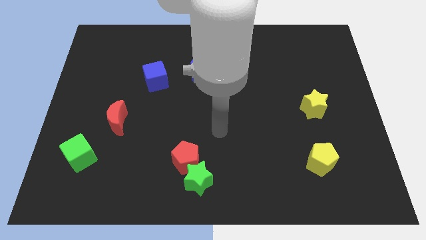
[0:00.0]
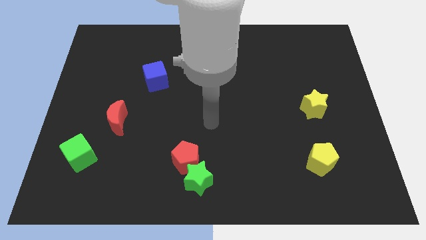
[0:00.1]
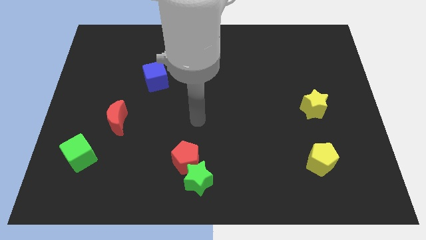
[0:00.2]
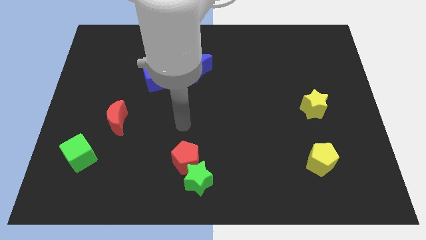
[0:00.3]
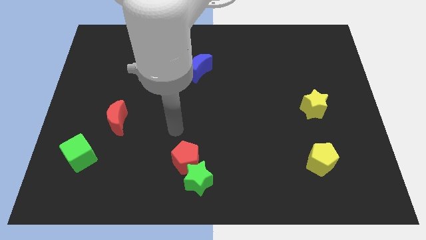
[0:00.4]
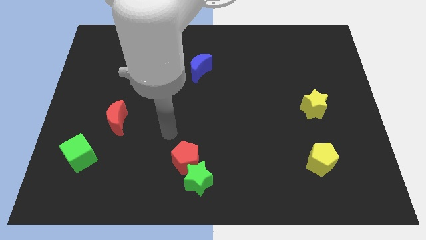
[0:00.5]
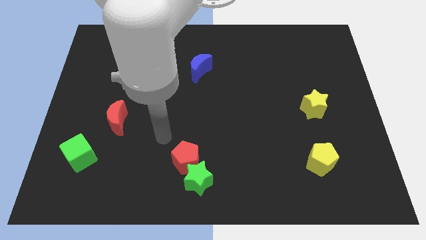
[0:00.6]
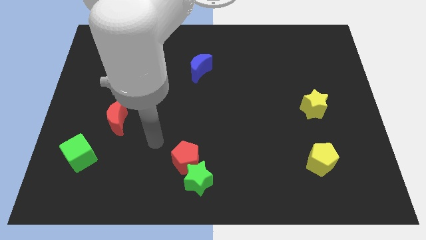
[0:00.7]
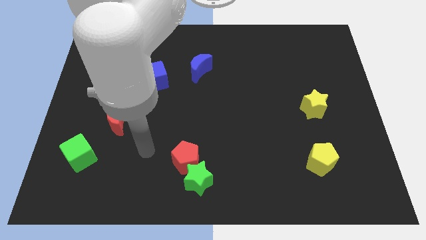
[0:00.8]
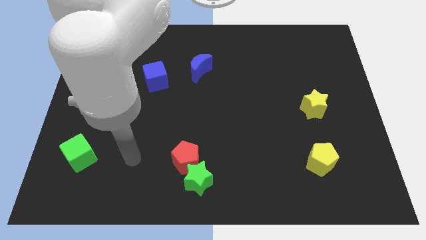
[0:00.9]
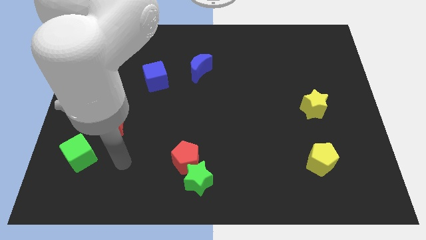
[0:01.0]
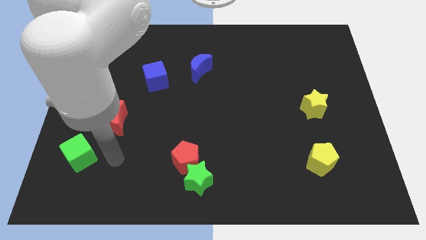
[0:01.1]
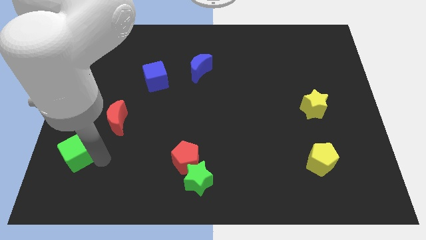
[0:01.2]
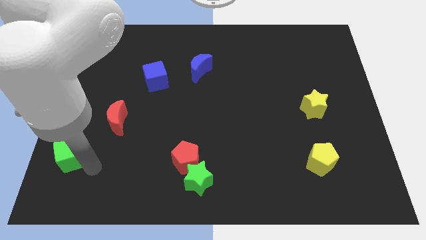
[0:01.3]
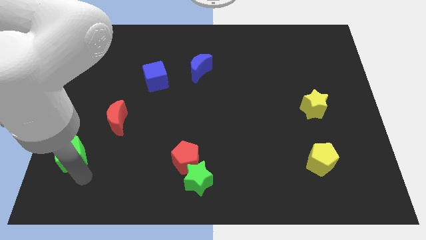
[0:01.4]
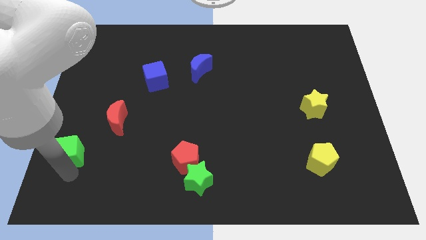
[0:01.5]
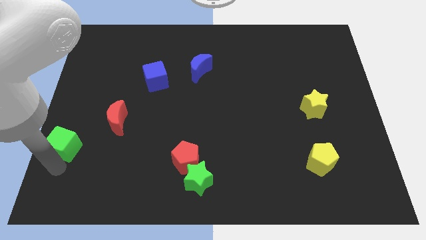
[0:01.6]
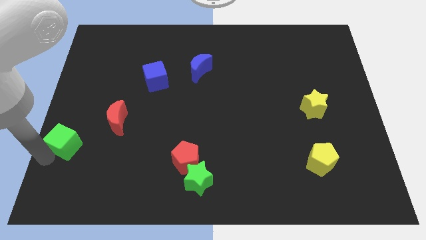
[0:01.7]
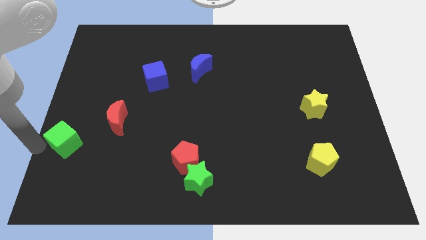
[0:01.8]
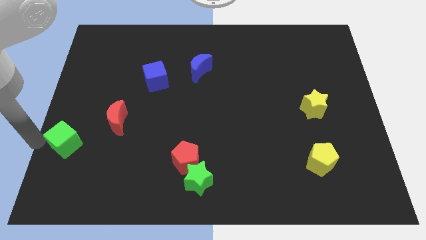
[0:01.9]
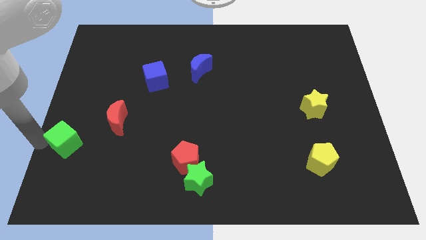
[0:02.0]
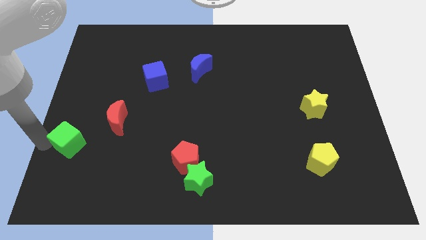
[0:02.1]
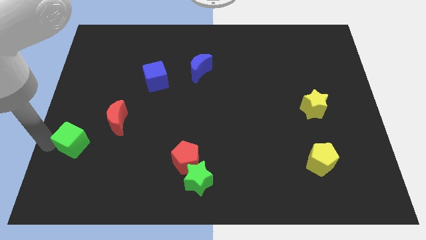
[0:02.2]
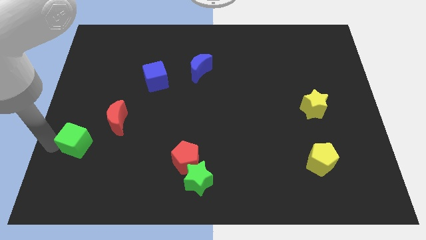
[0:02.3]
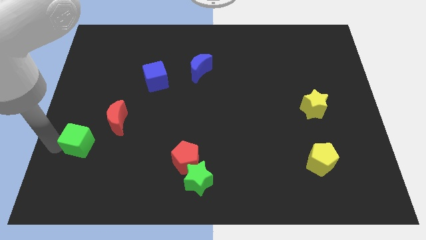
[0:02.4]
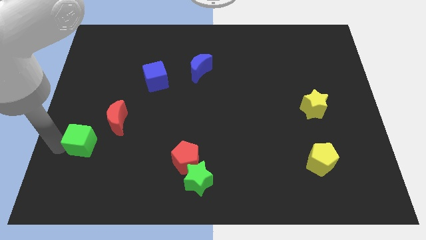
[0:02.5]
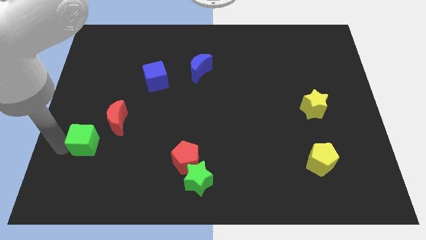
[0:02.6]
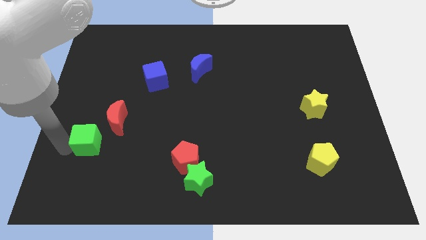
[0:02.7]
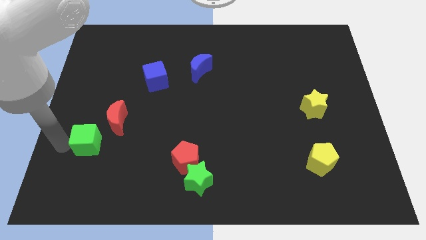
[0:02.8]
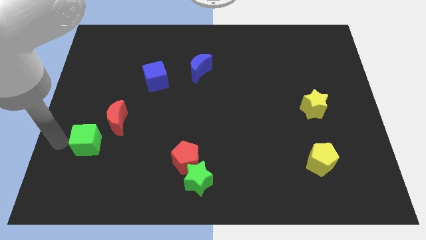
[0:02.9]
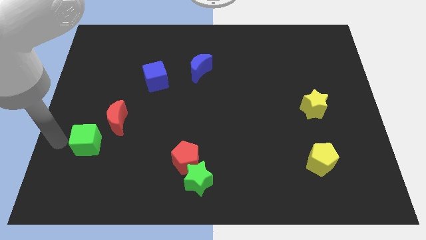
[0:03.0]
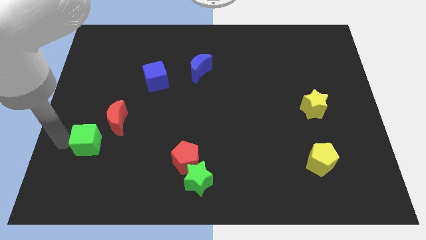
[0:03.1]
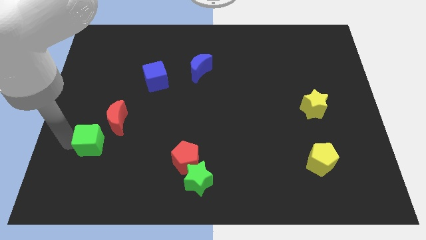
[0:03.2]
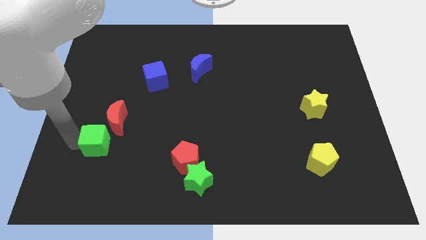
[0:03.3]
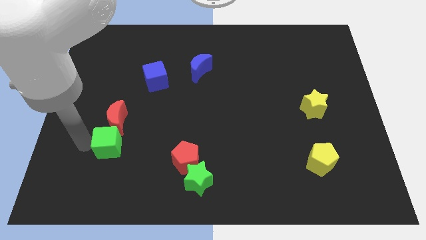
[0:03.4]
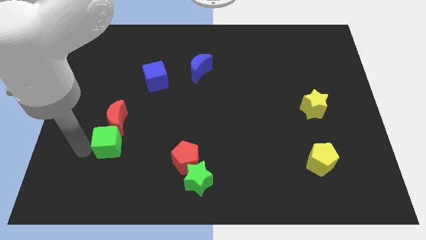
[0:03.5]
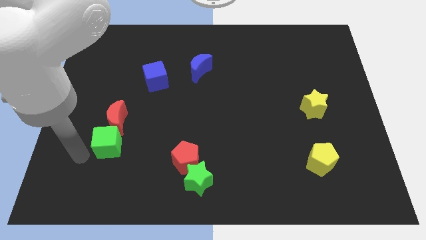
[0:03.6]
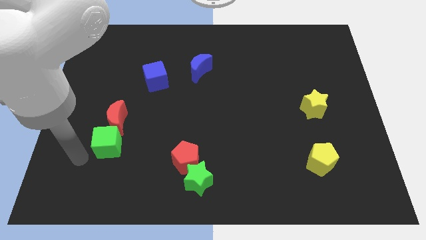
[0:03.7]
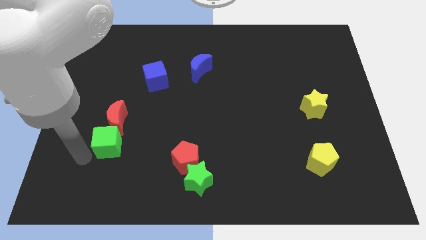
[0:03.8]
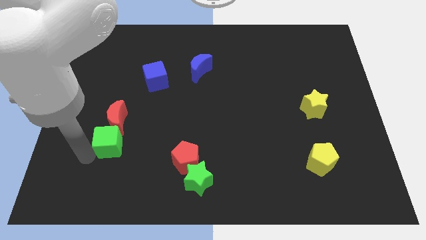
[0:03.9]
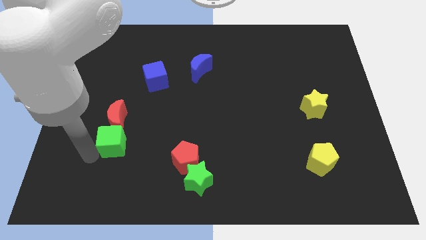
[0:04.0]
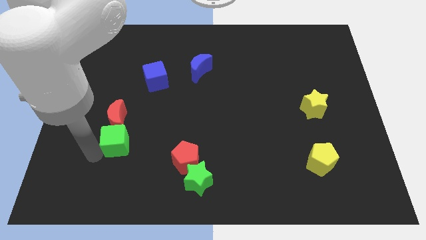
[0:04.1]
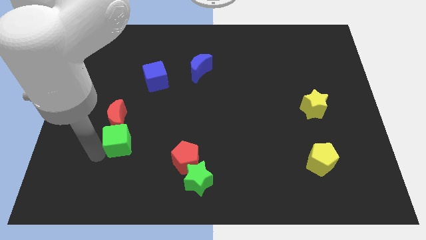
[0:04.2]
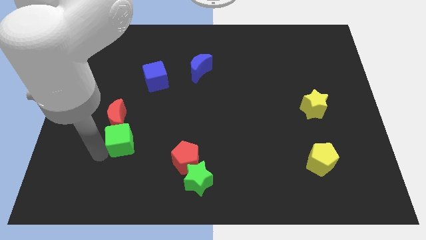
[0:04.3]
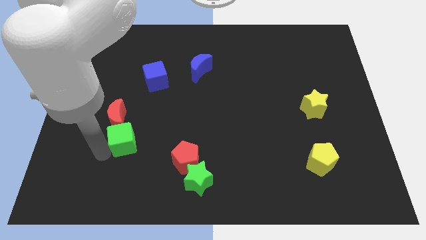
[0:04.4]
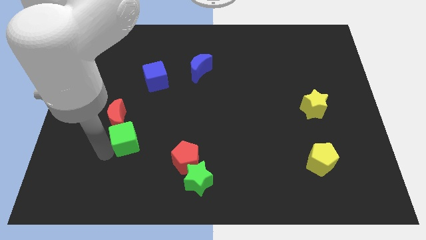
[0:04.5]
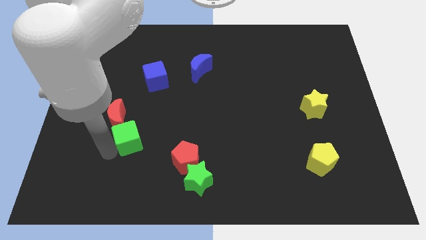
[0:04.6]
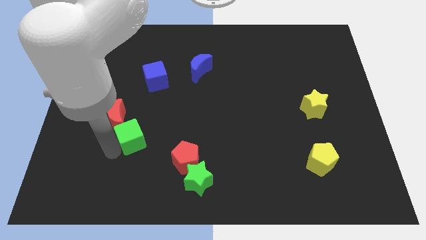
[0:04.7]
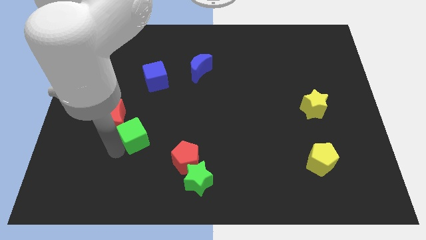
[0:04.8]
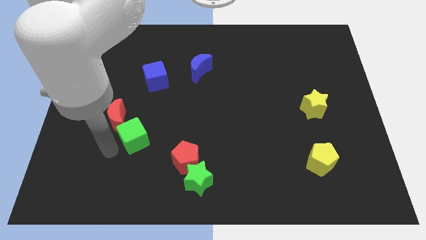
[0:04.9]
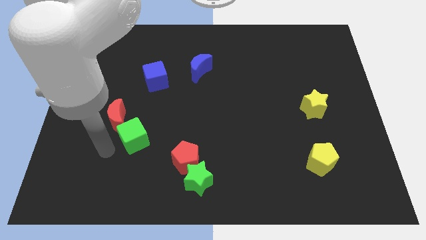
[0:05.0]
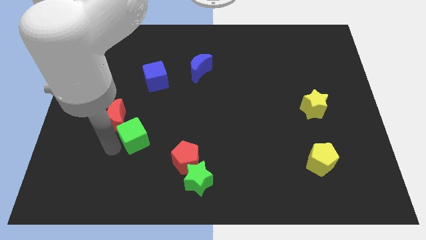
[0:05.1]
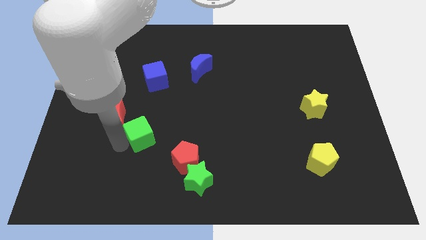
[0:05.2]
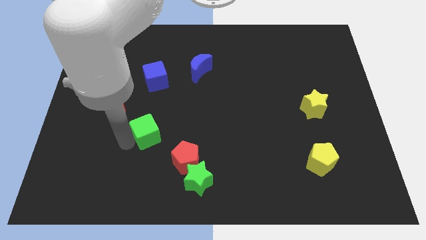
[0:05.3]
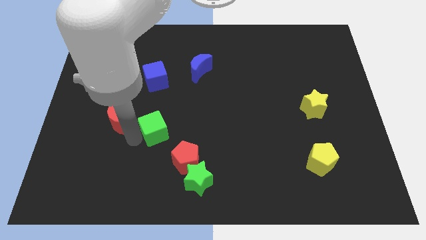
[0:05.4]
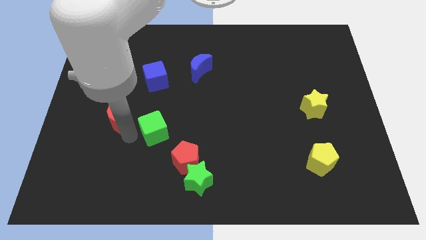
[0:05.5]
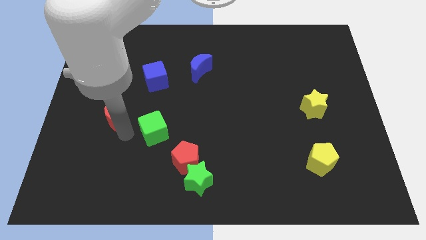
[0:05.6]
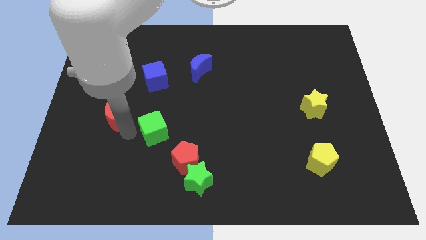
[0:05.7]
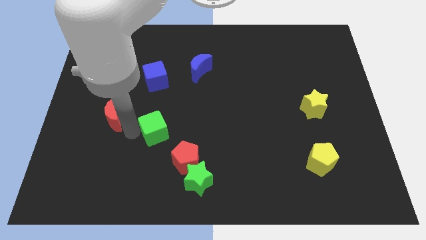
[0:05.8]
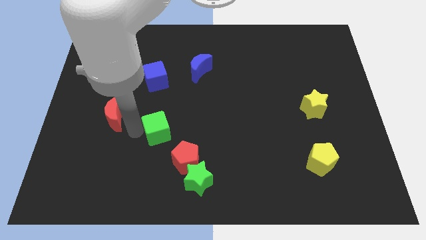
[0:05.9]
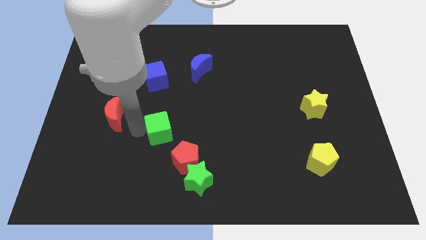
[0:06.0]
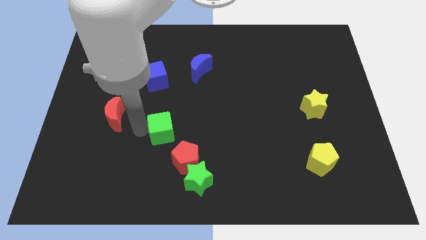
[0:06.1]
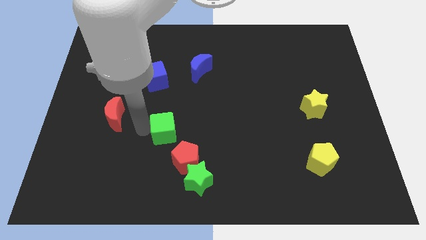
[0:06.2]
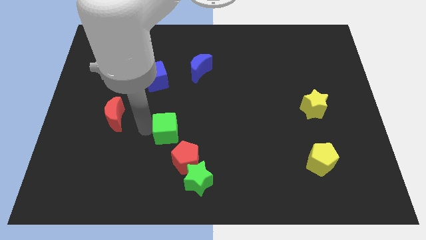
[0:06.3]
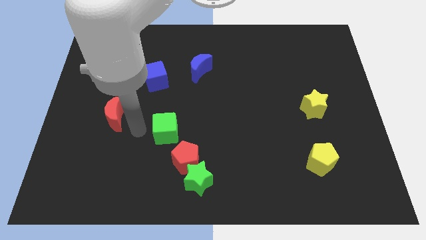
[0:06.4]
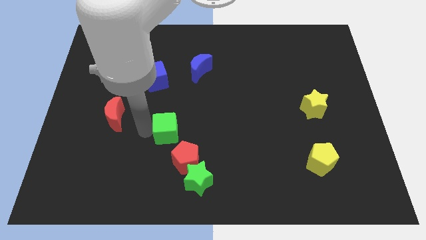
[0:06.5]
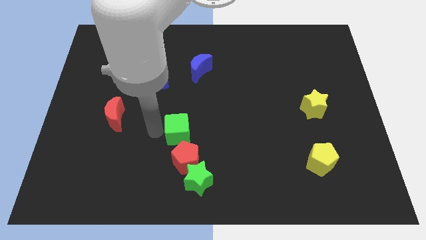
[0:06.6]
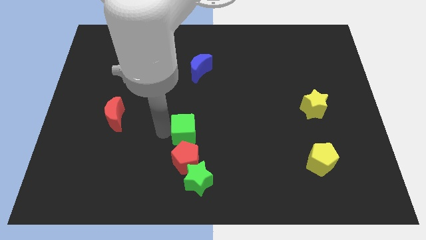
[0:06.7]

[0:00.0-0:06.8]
push the green cube right

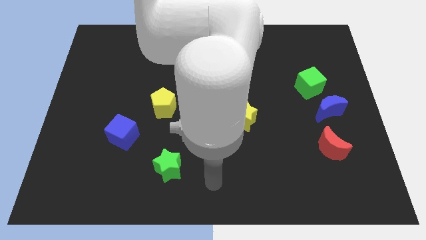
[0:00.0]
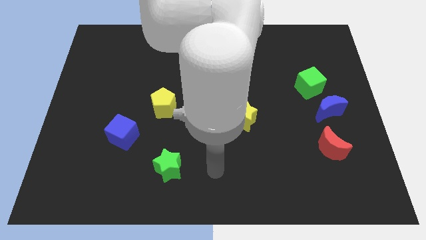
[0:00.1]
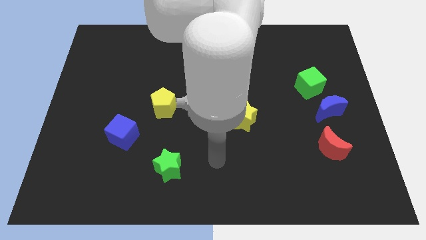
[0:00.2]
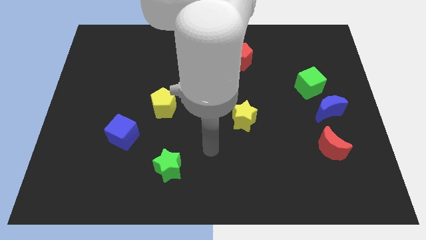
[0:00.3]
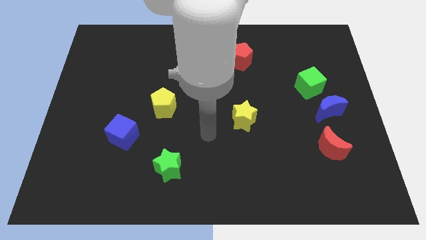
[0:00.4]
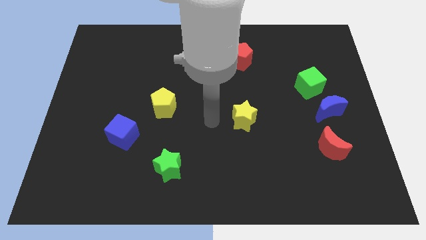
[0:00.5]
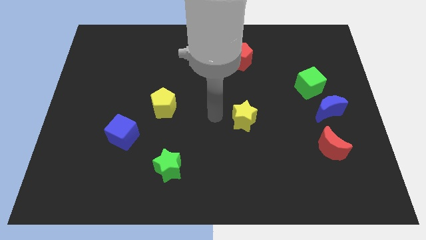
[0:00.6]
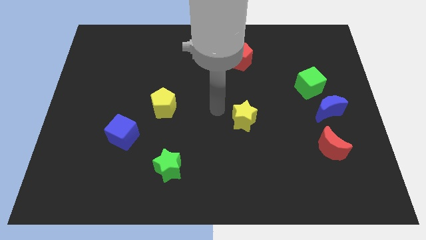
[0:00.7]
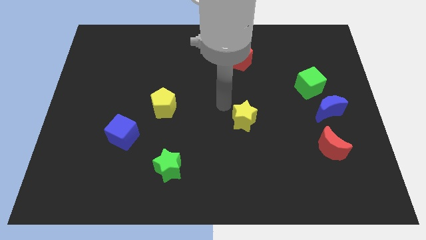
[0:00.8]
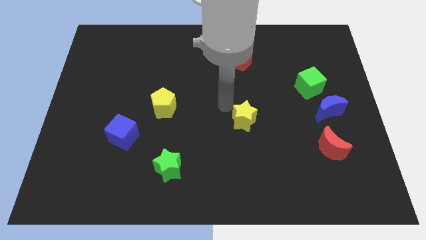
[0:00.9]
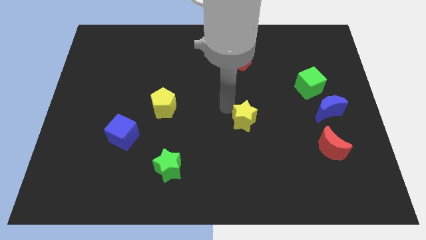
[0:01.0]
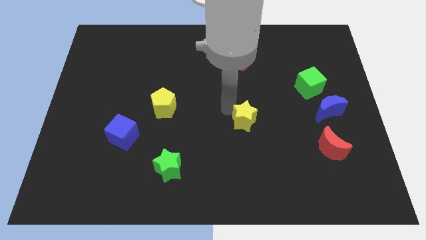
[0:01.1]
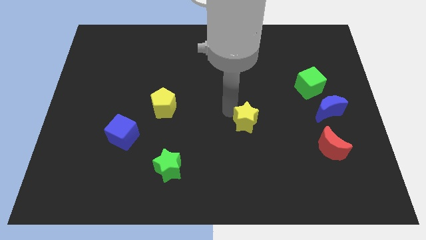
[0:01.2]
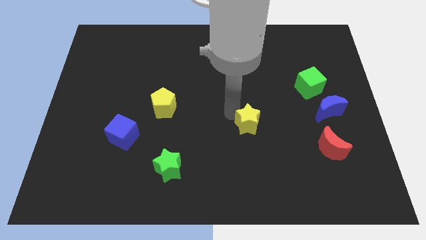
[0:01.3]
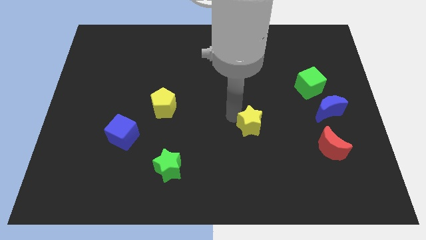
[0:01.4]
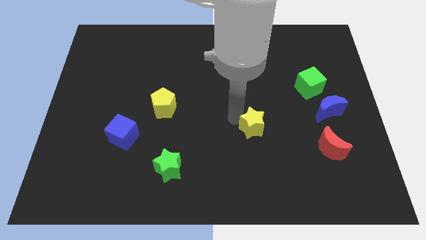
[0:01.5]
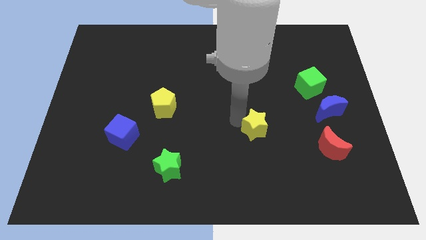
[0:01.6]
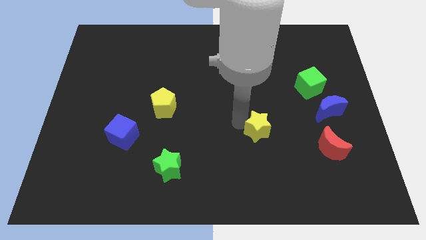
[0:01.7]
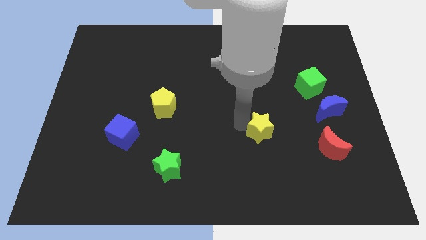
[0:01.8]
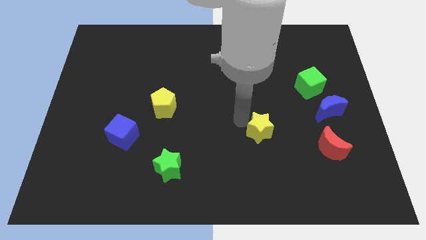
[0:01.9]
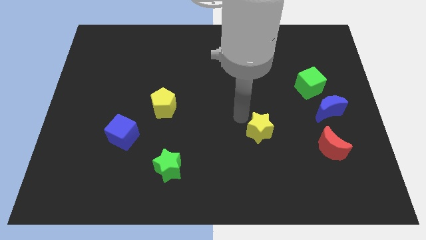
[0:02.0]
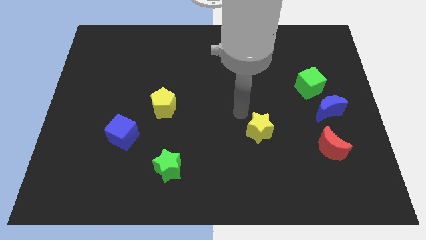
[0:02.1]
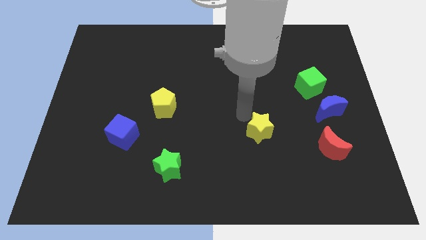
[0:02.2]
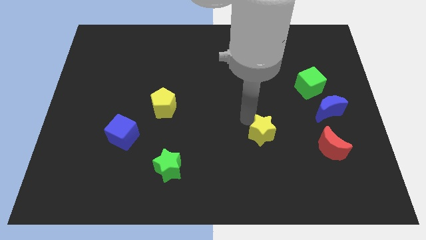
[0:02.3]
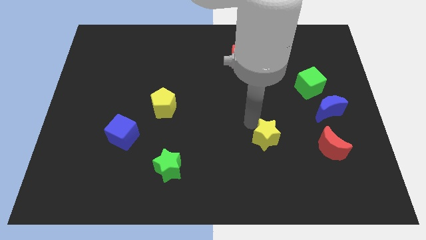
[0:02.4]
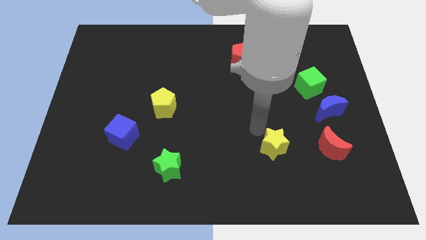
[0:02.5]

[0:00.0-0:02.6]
slightly move the yellow star down and to the right
